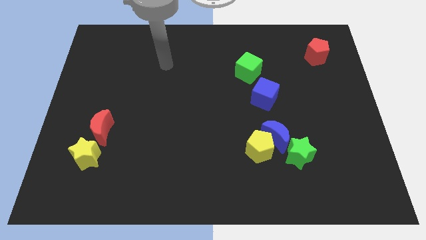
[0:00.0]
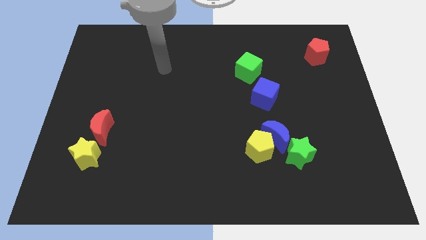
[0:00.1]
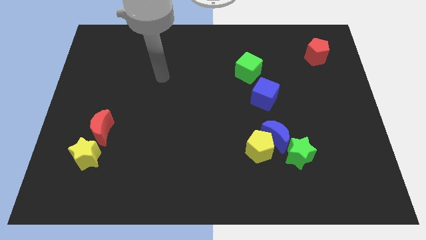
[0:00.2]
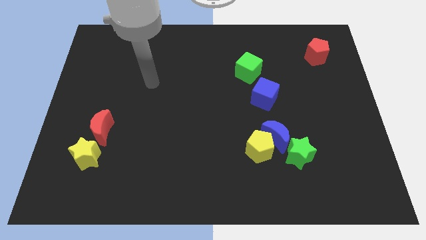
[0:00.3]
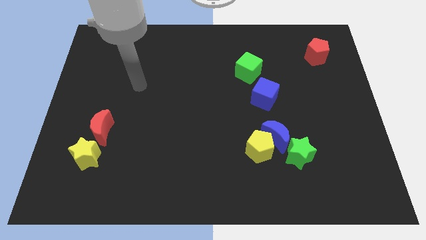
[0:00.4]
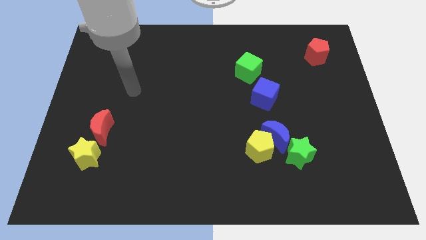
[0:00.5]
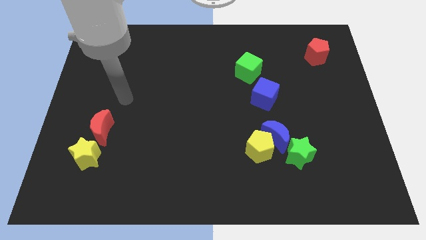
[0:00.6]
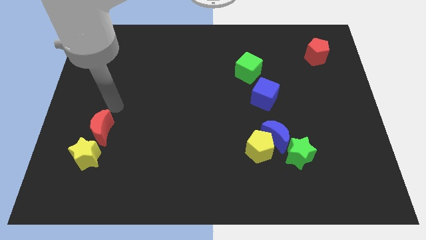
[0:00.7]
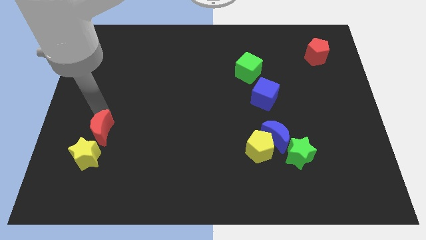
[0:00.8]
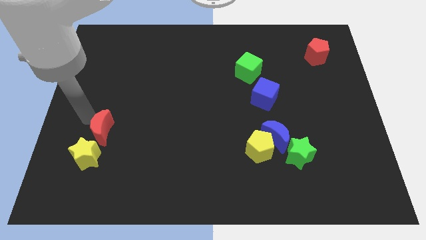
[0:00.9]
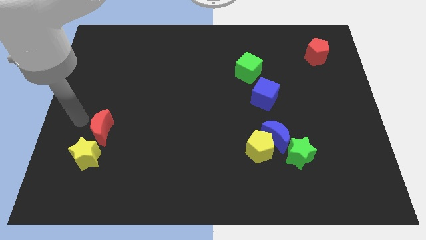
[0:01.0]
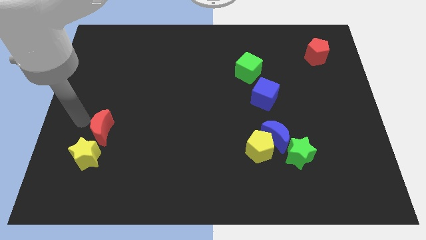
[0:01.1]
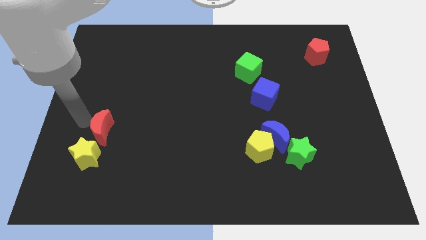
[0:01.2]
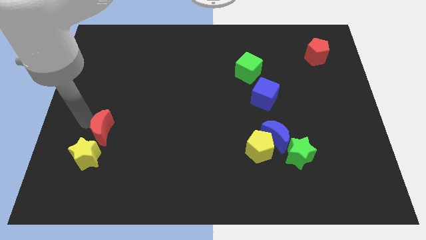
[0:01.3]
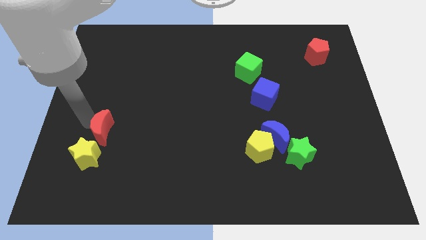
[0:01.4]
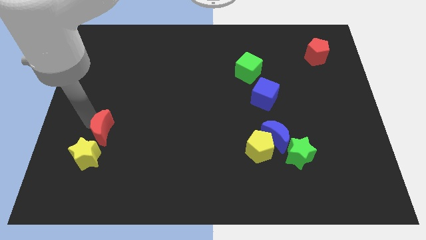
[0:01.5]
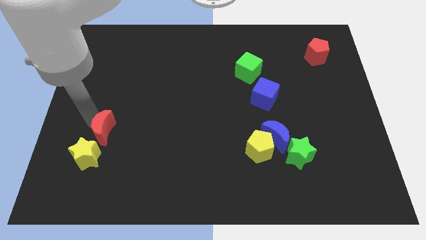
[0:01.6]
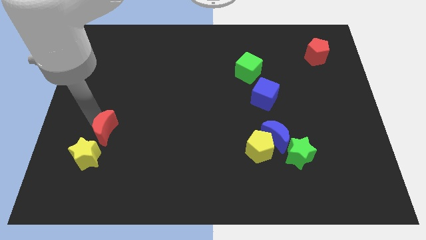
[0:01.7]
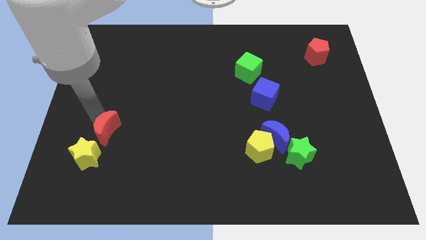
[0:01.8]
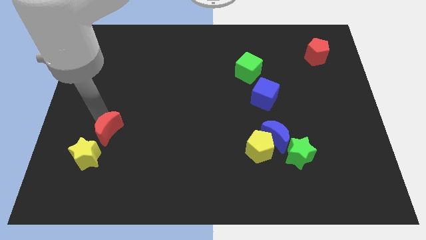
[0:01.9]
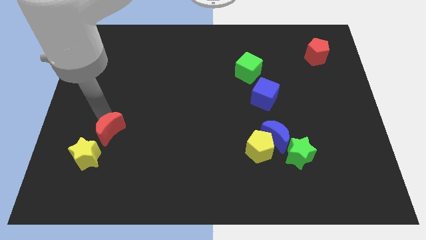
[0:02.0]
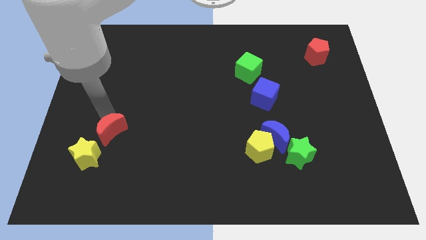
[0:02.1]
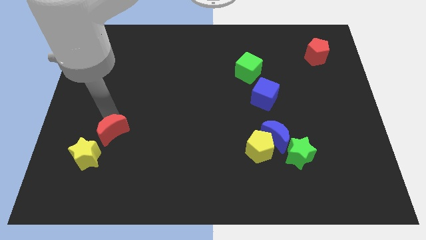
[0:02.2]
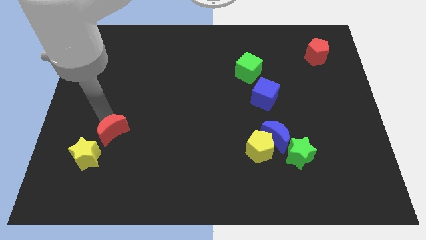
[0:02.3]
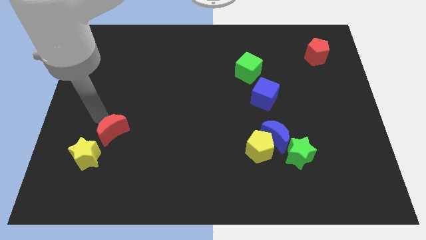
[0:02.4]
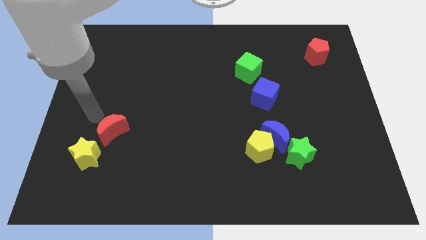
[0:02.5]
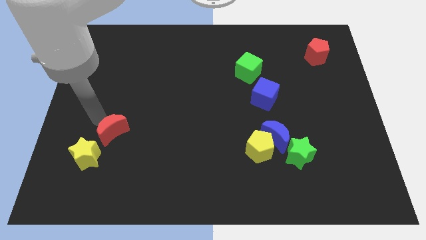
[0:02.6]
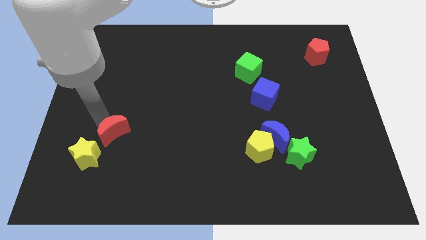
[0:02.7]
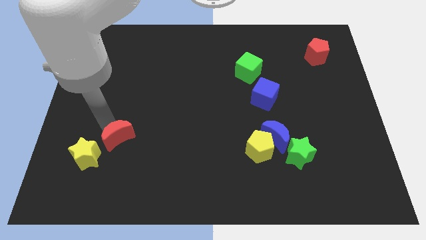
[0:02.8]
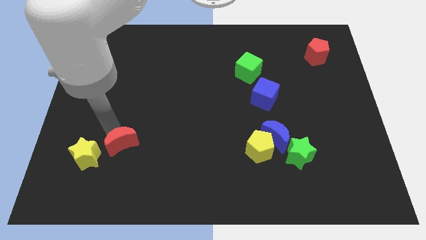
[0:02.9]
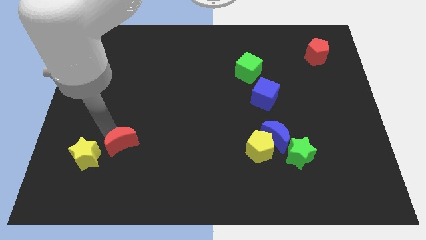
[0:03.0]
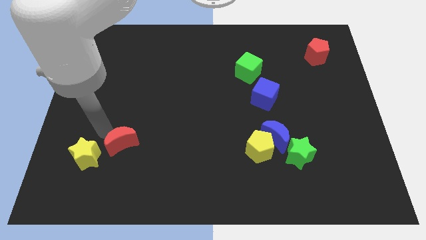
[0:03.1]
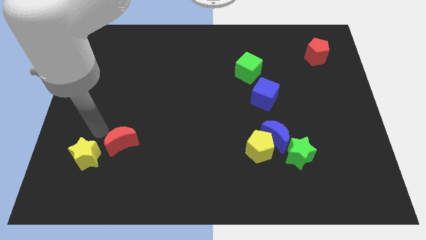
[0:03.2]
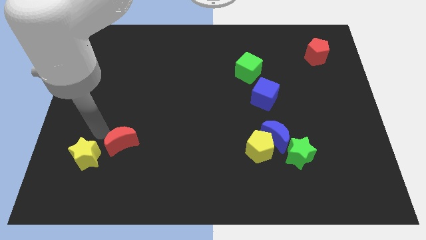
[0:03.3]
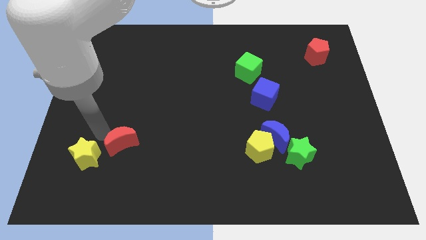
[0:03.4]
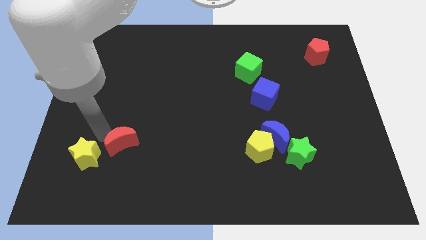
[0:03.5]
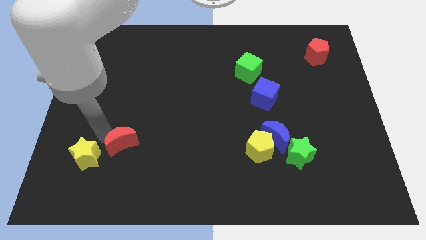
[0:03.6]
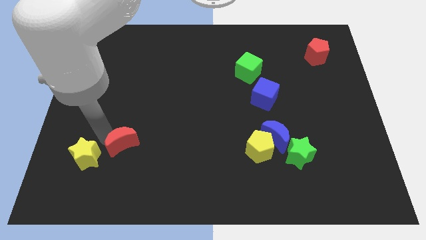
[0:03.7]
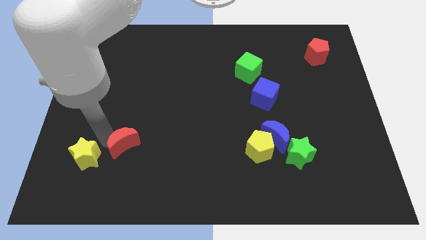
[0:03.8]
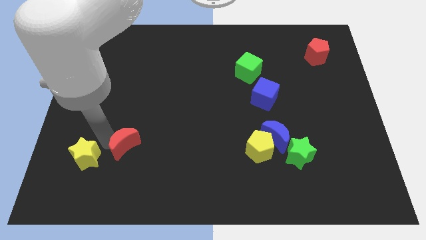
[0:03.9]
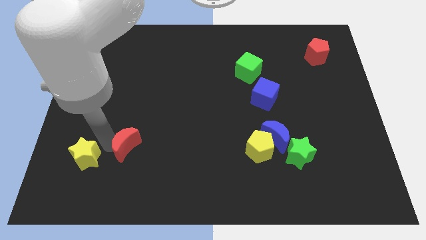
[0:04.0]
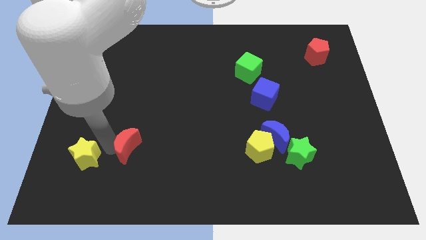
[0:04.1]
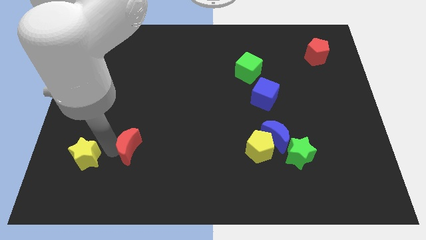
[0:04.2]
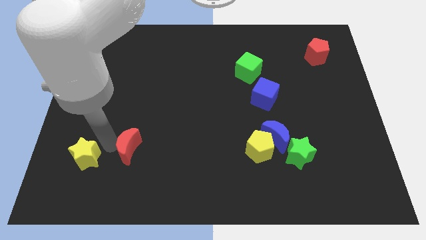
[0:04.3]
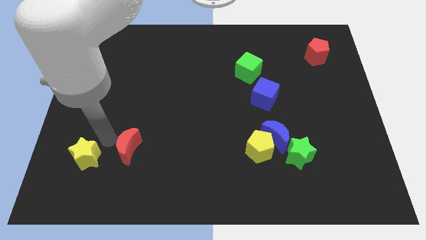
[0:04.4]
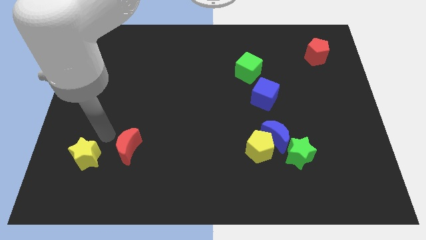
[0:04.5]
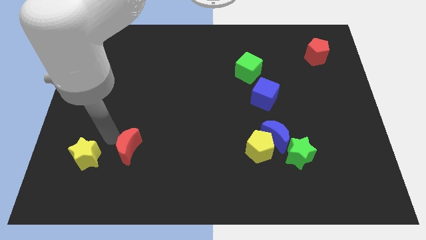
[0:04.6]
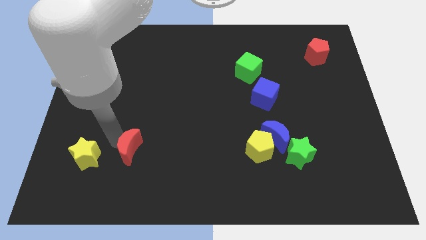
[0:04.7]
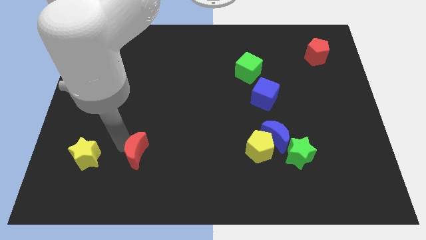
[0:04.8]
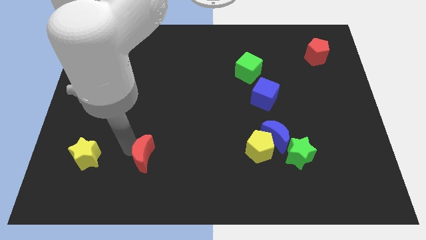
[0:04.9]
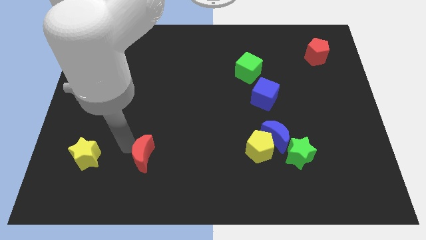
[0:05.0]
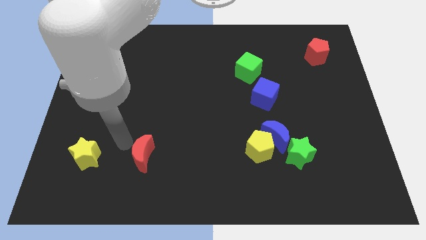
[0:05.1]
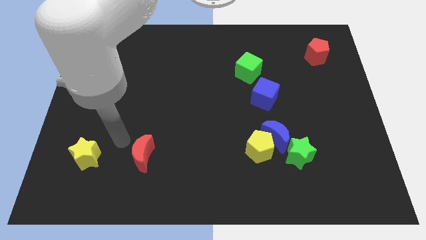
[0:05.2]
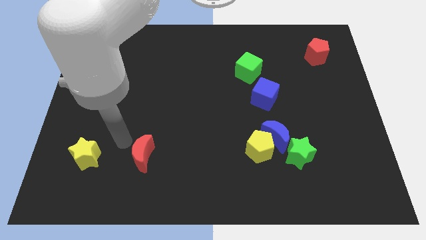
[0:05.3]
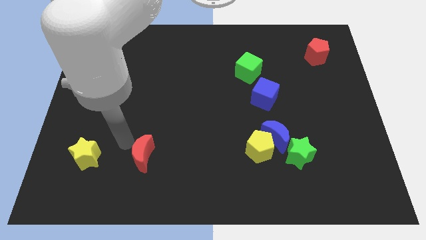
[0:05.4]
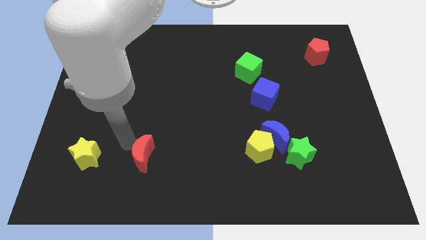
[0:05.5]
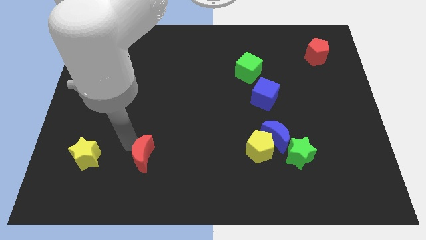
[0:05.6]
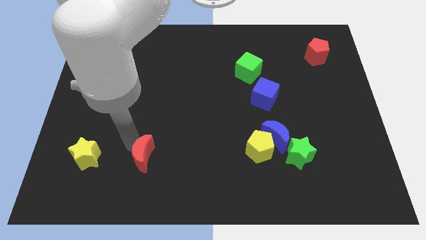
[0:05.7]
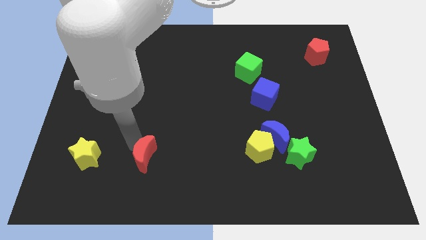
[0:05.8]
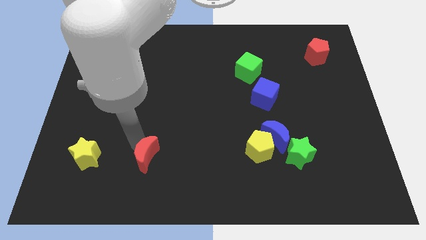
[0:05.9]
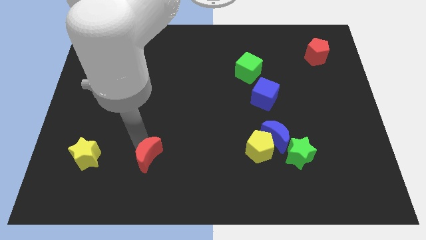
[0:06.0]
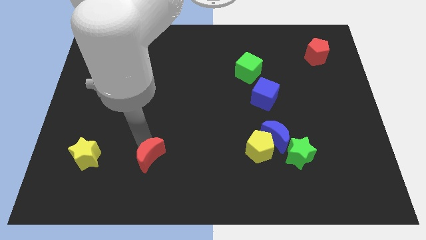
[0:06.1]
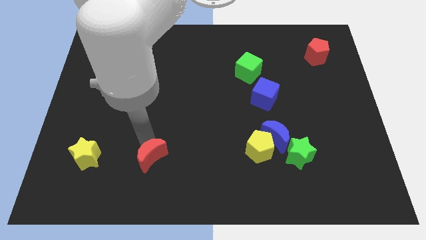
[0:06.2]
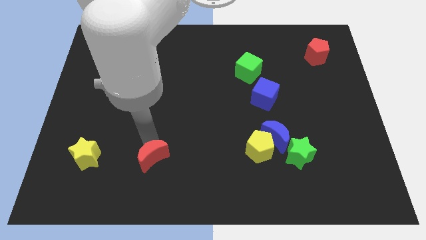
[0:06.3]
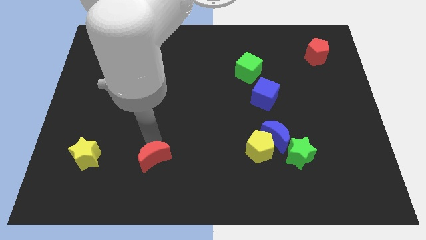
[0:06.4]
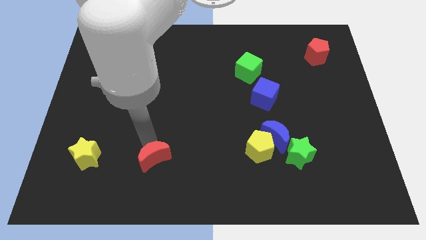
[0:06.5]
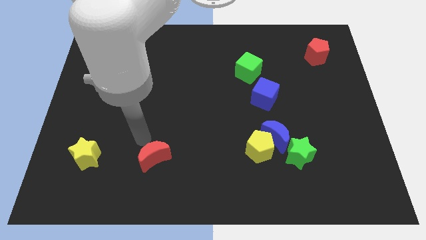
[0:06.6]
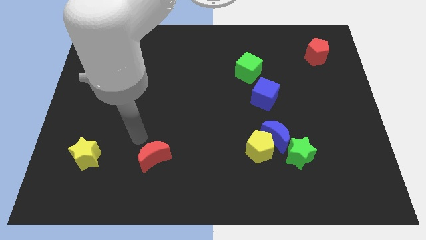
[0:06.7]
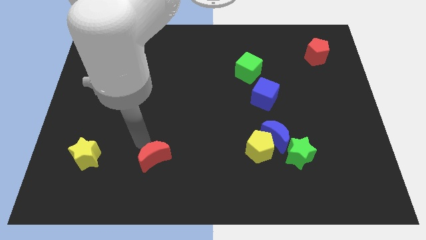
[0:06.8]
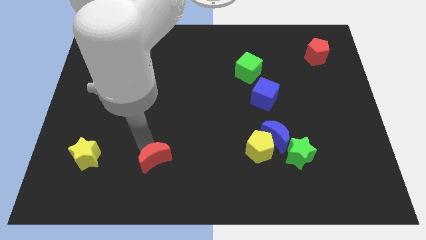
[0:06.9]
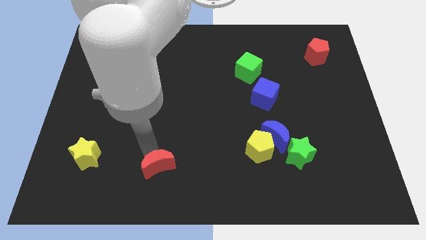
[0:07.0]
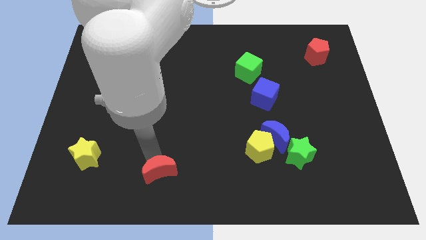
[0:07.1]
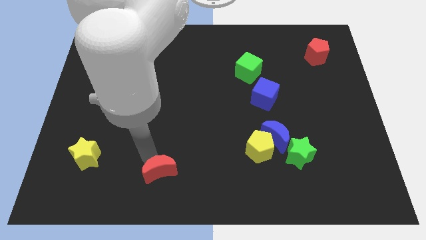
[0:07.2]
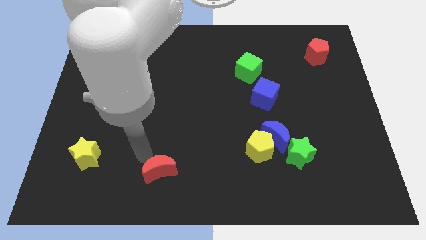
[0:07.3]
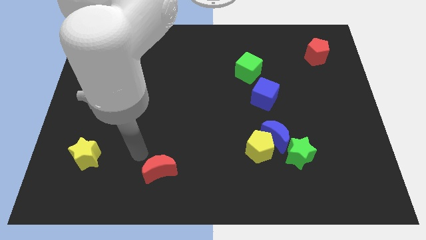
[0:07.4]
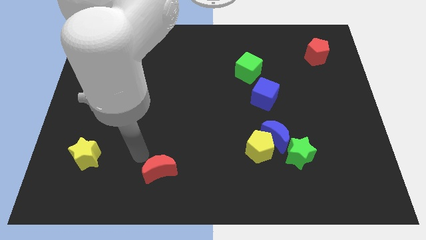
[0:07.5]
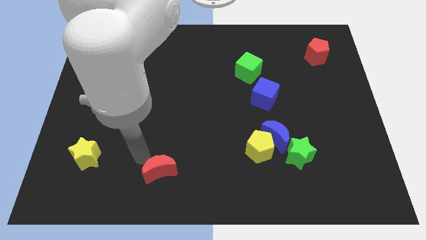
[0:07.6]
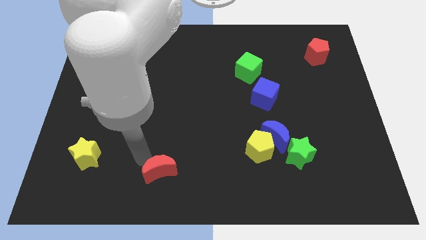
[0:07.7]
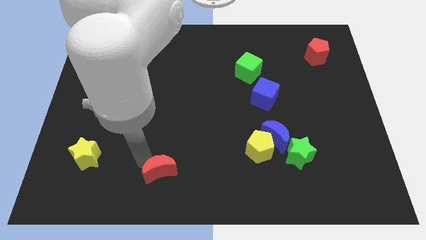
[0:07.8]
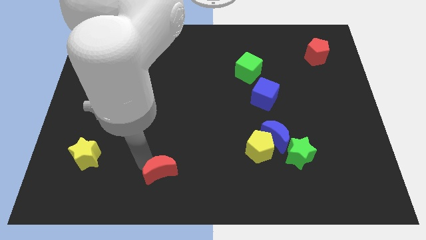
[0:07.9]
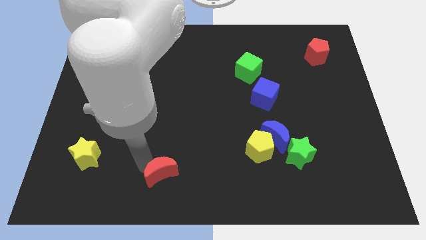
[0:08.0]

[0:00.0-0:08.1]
move the red moon to the bottom side
